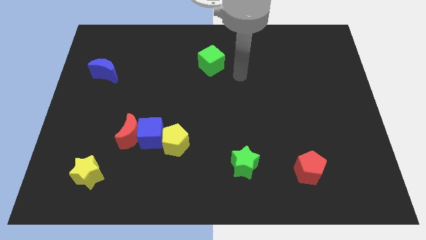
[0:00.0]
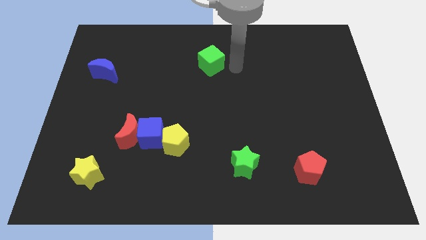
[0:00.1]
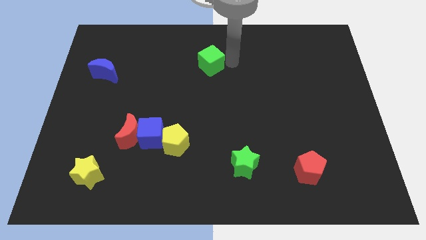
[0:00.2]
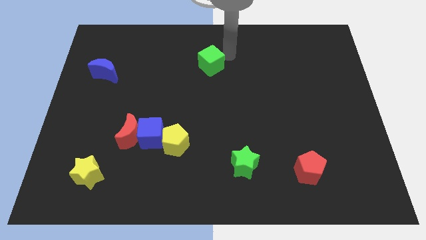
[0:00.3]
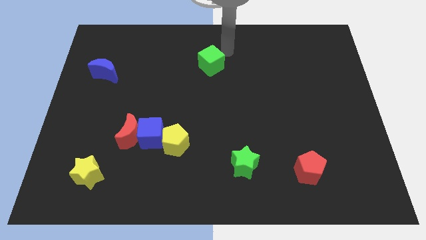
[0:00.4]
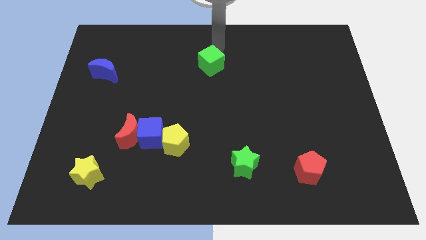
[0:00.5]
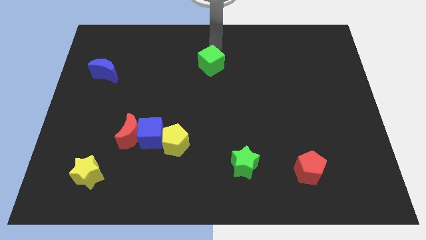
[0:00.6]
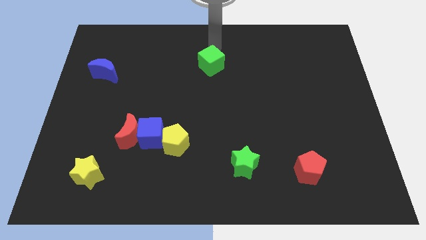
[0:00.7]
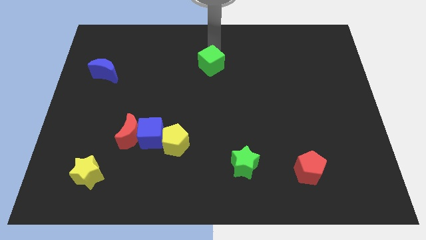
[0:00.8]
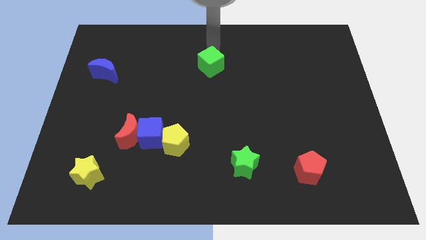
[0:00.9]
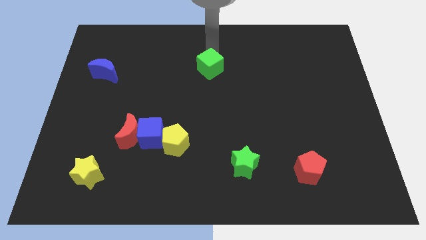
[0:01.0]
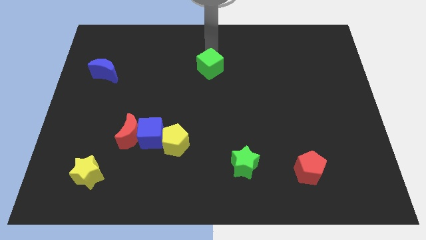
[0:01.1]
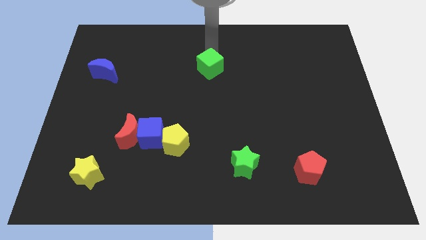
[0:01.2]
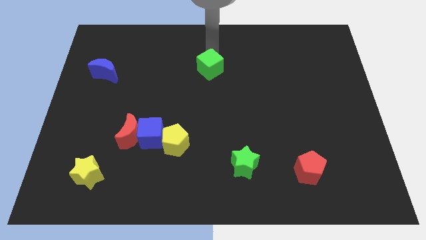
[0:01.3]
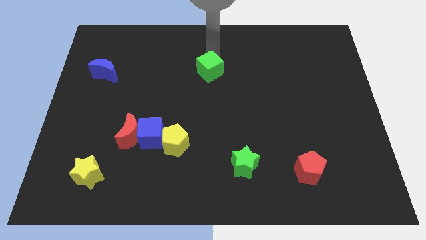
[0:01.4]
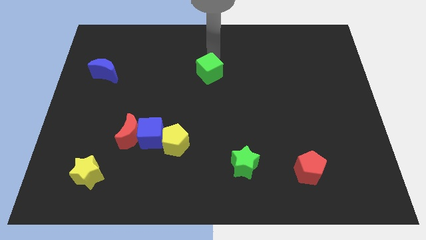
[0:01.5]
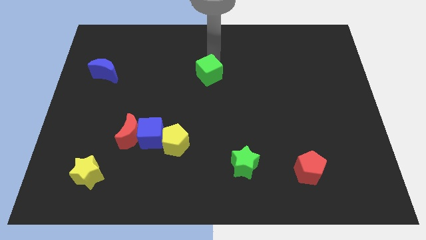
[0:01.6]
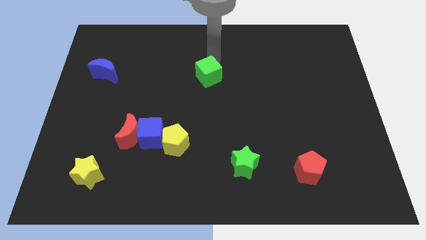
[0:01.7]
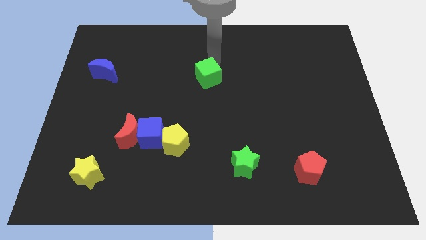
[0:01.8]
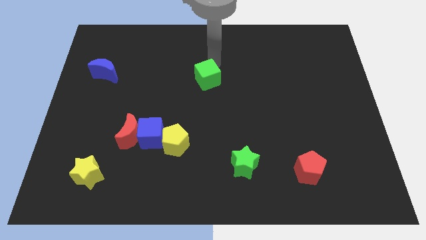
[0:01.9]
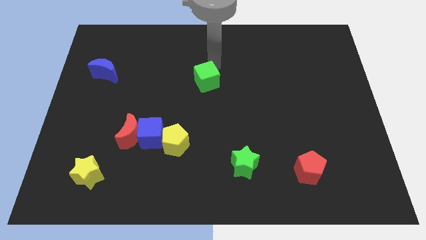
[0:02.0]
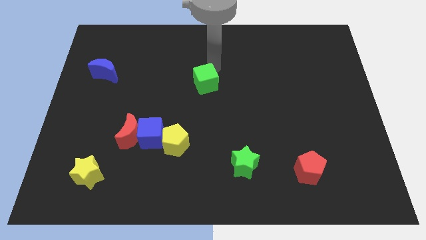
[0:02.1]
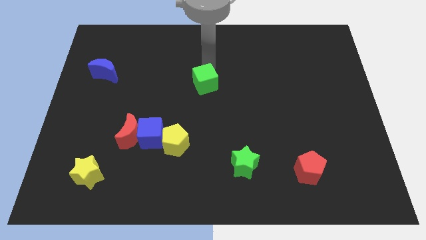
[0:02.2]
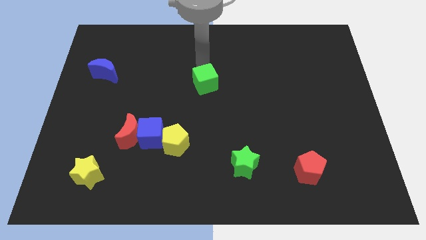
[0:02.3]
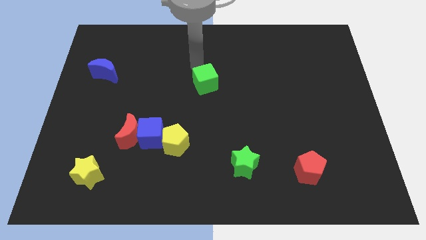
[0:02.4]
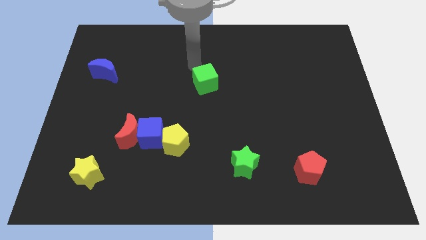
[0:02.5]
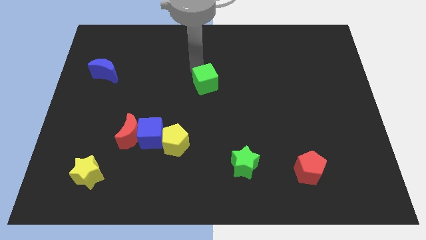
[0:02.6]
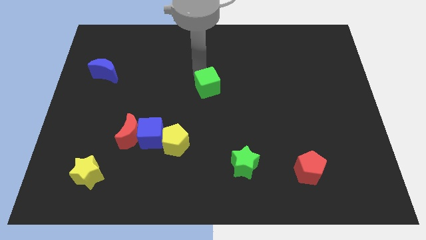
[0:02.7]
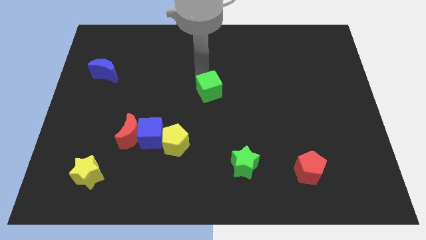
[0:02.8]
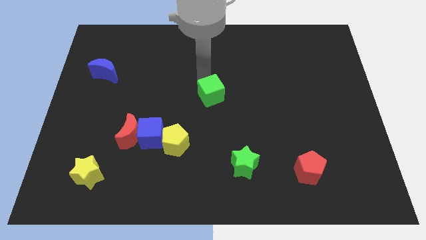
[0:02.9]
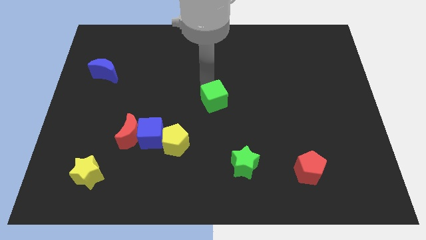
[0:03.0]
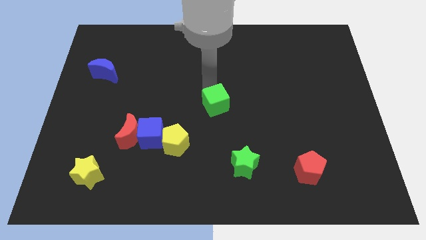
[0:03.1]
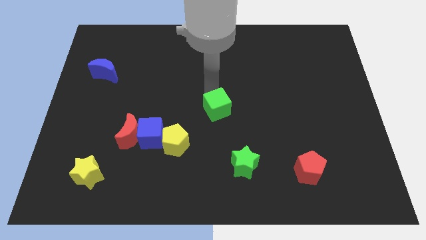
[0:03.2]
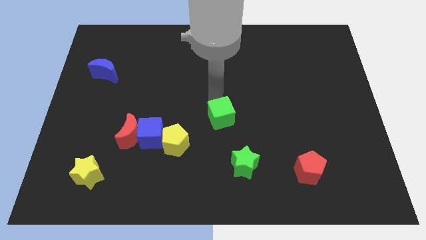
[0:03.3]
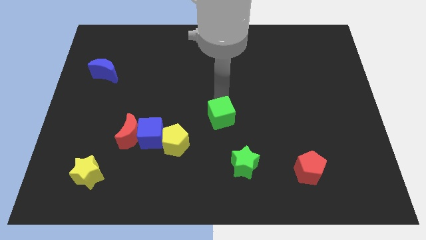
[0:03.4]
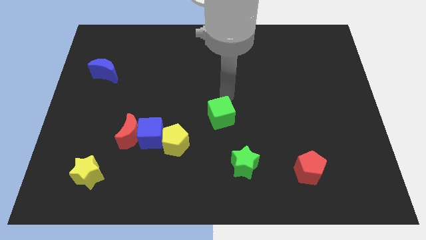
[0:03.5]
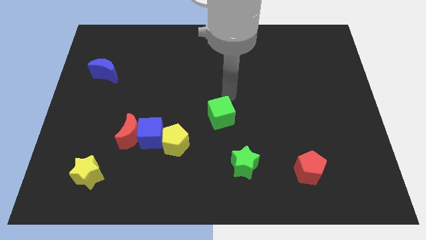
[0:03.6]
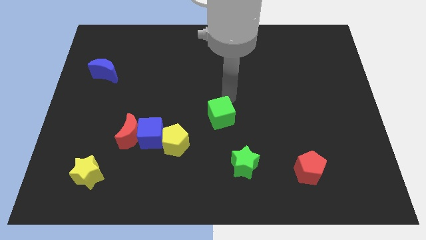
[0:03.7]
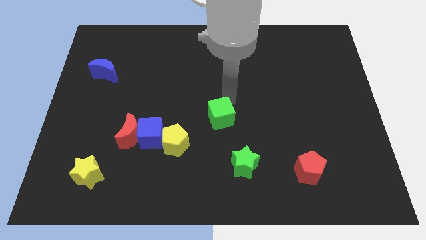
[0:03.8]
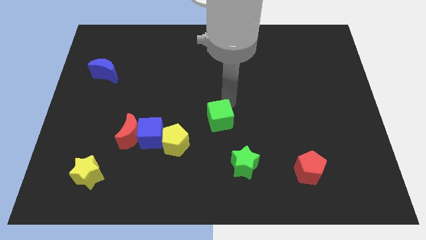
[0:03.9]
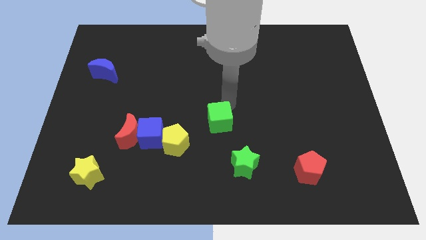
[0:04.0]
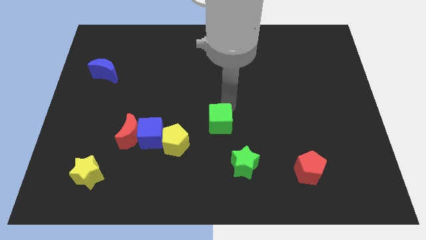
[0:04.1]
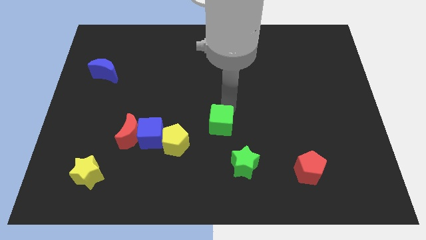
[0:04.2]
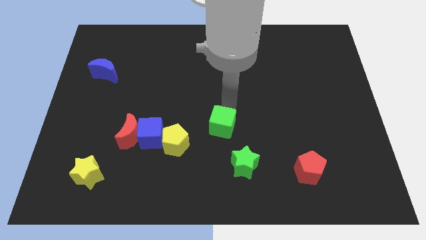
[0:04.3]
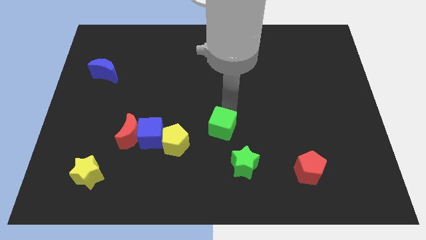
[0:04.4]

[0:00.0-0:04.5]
move the green cube downwards

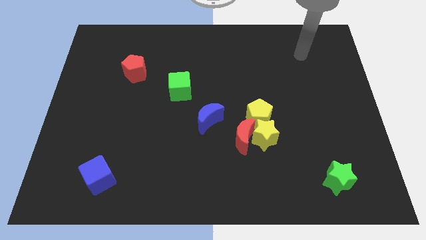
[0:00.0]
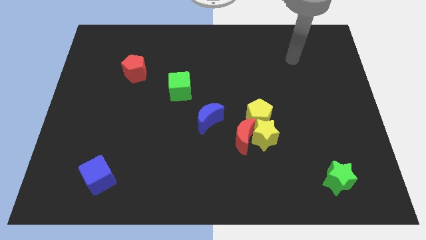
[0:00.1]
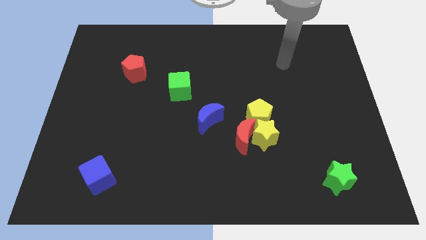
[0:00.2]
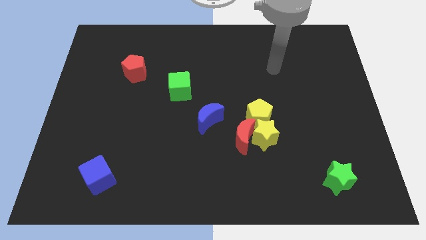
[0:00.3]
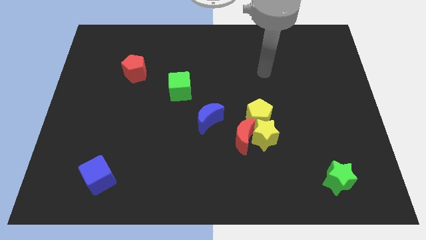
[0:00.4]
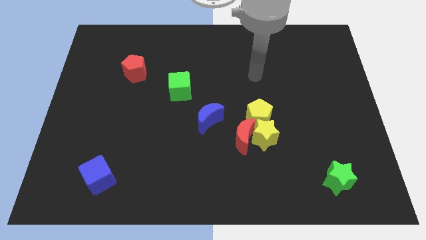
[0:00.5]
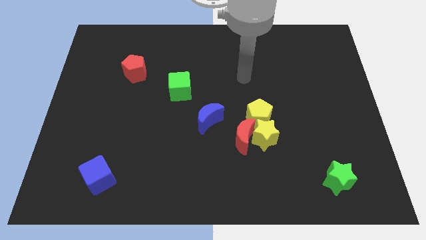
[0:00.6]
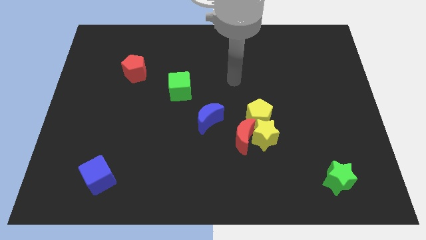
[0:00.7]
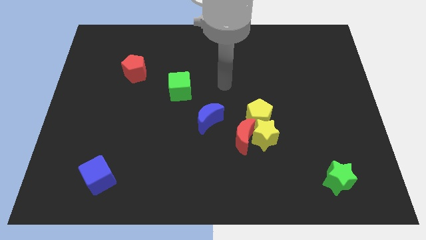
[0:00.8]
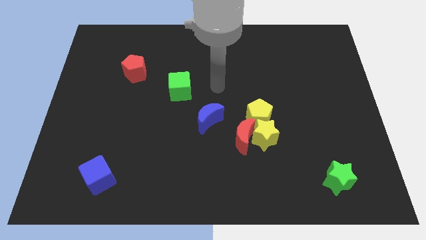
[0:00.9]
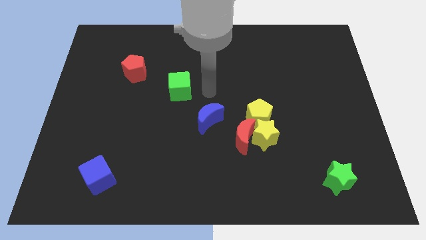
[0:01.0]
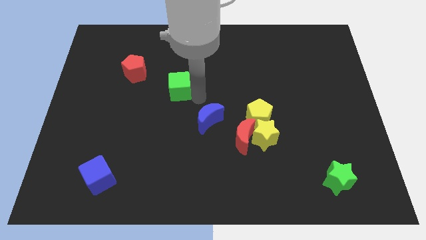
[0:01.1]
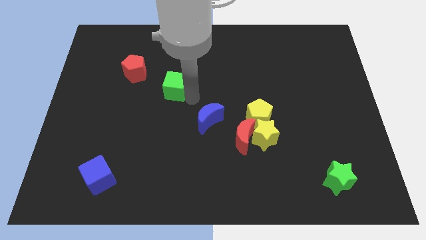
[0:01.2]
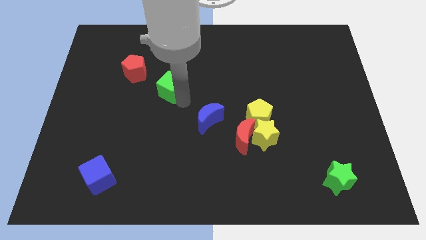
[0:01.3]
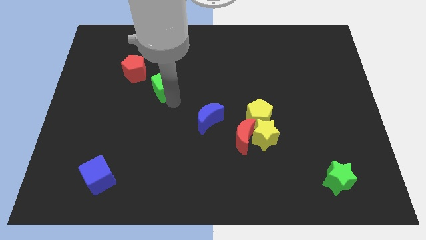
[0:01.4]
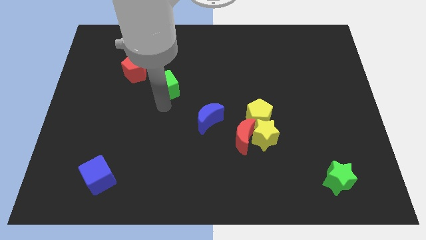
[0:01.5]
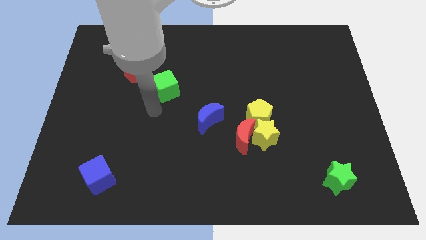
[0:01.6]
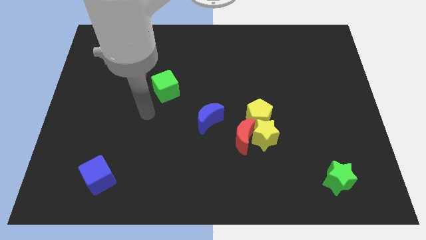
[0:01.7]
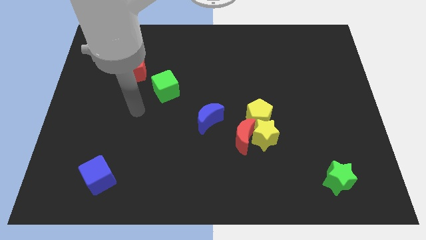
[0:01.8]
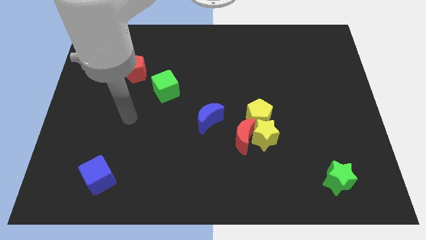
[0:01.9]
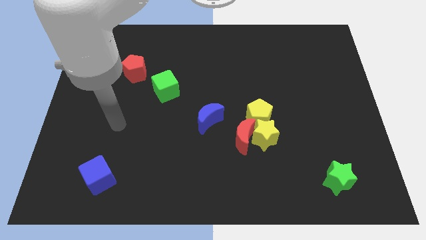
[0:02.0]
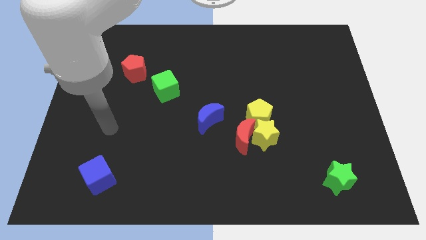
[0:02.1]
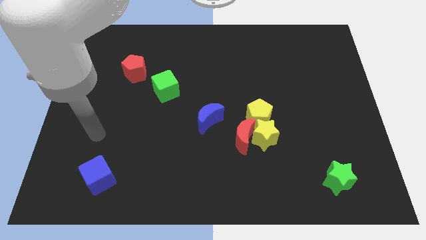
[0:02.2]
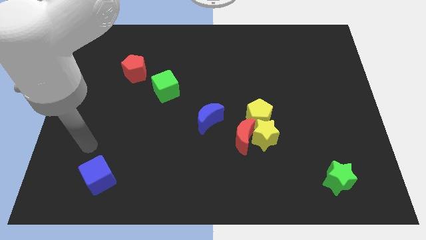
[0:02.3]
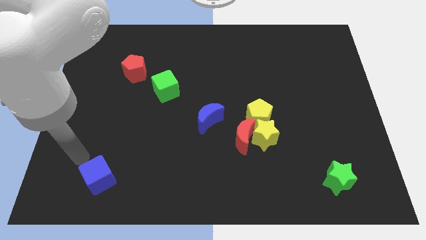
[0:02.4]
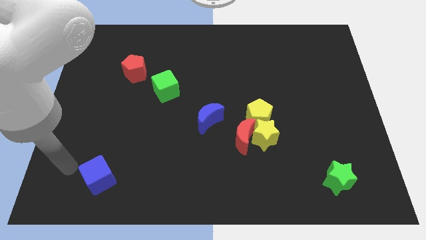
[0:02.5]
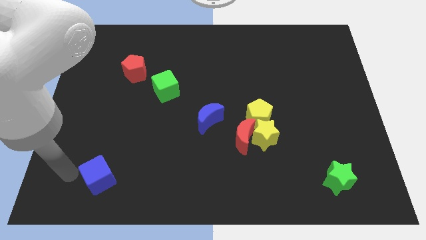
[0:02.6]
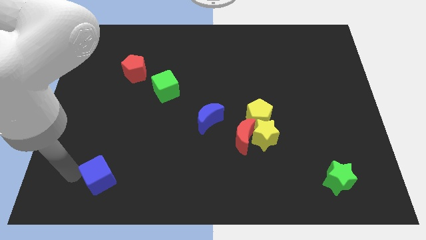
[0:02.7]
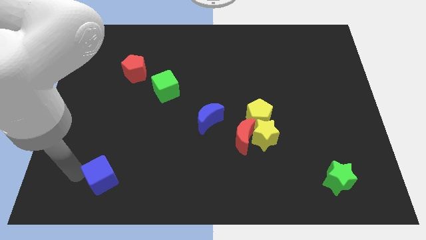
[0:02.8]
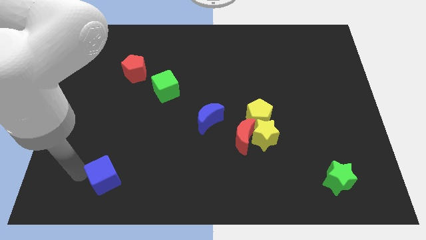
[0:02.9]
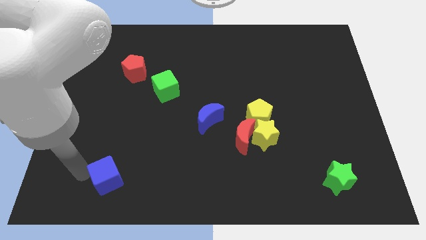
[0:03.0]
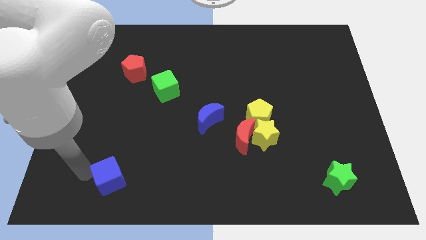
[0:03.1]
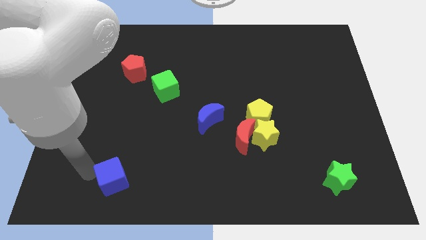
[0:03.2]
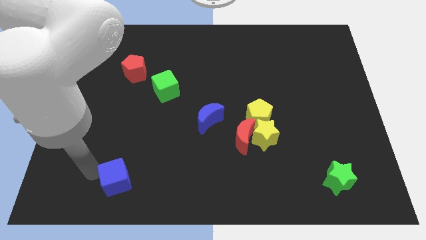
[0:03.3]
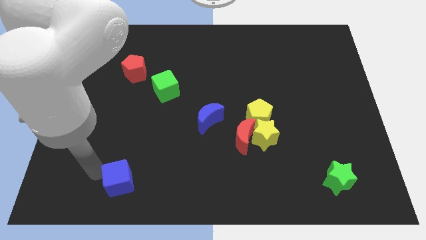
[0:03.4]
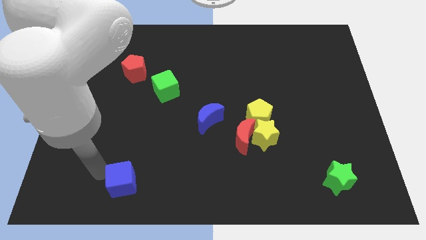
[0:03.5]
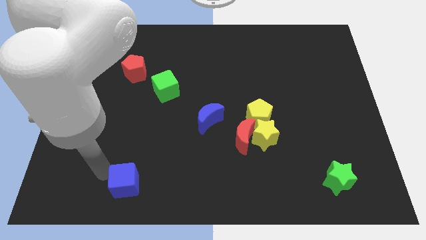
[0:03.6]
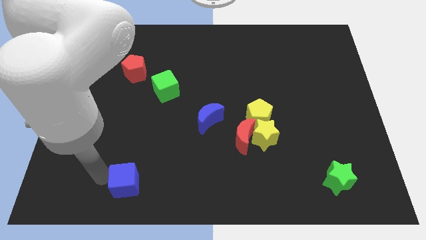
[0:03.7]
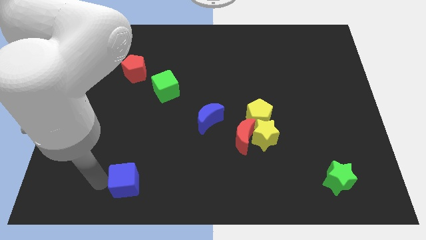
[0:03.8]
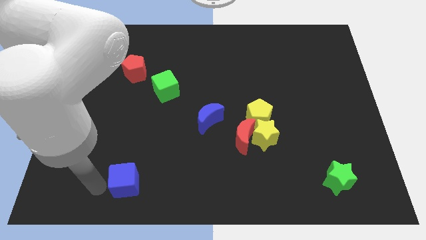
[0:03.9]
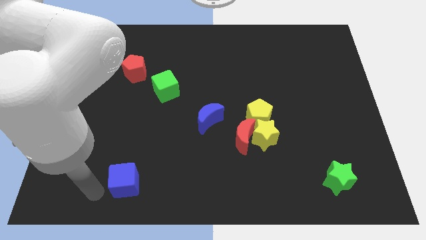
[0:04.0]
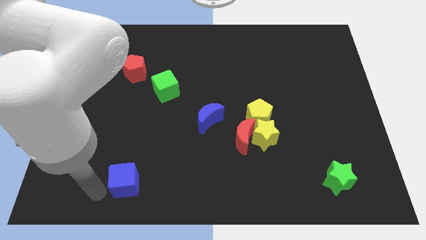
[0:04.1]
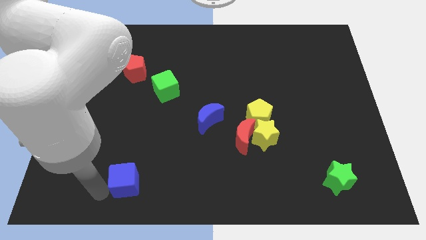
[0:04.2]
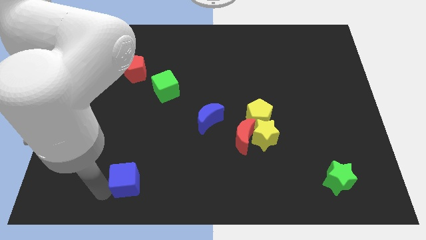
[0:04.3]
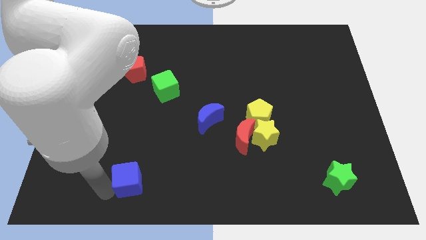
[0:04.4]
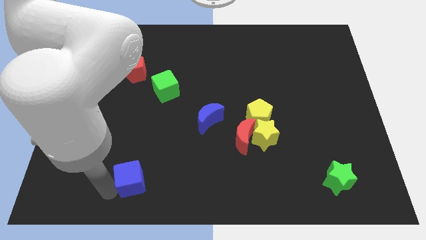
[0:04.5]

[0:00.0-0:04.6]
slightly push the blue cube to the right
